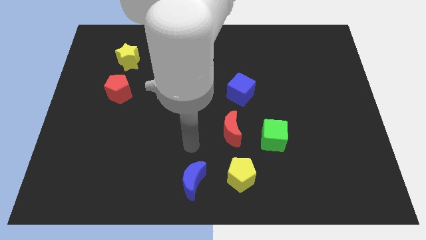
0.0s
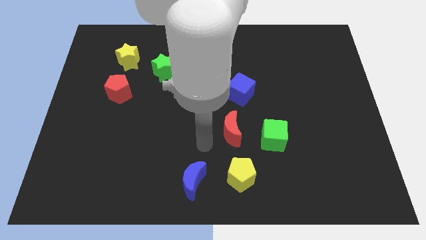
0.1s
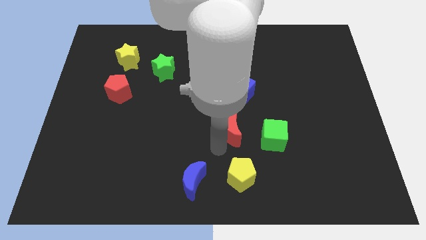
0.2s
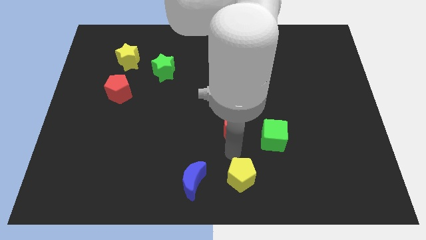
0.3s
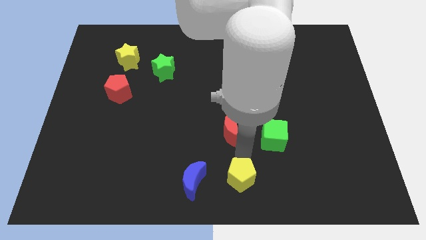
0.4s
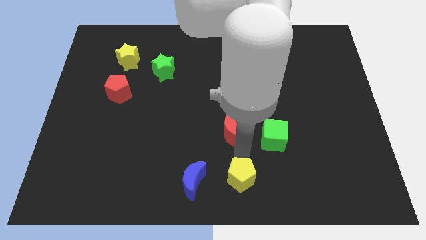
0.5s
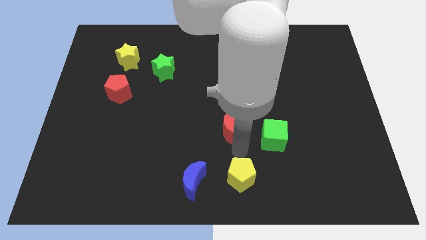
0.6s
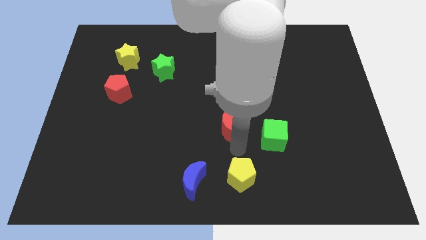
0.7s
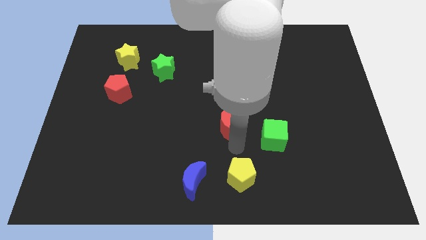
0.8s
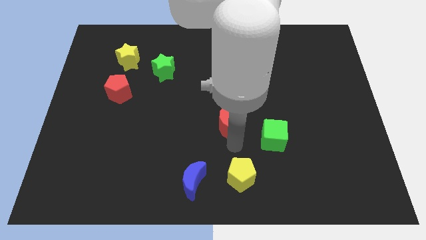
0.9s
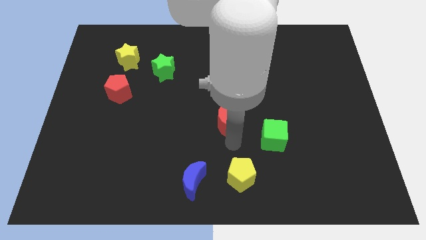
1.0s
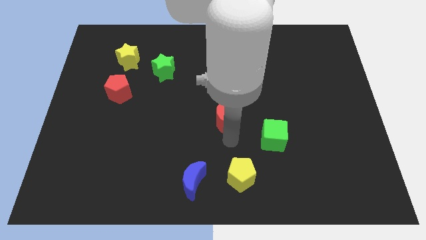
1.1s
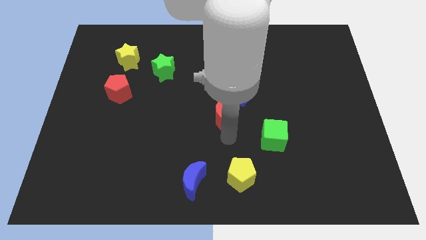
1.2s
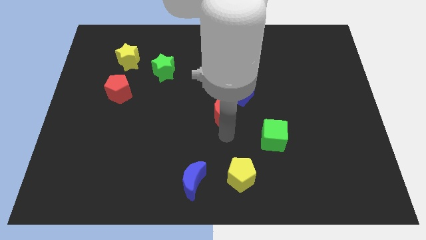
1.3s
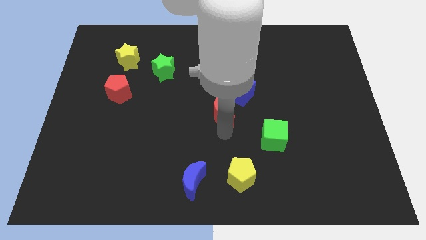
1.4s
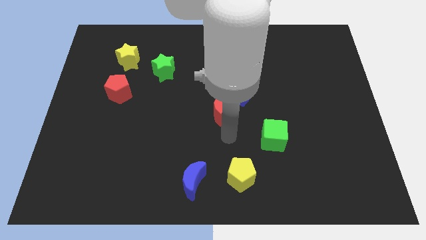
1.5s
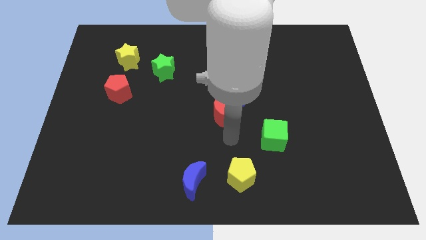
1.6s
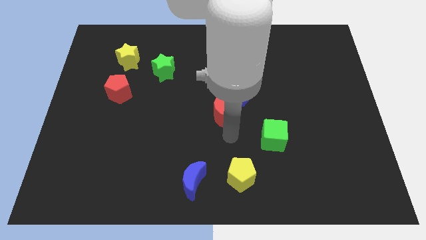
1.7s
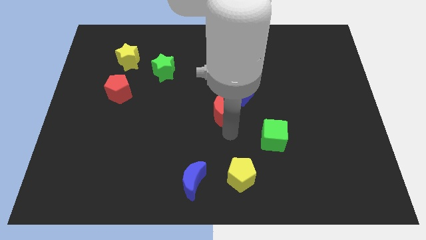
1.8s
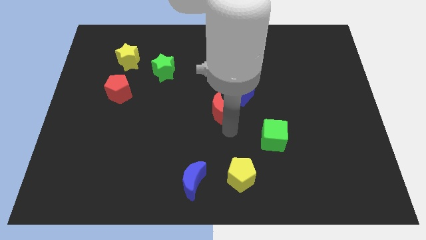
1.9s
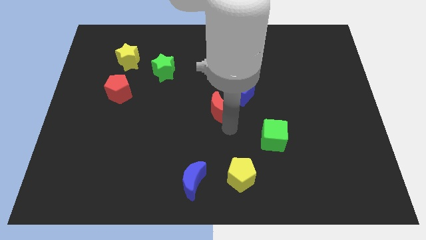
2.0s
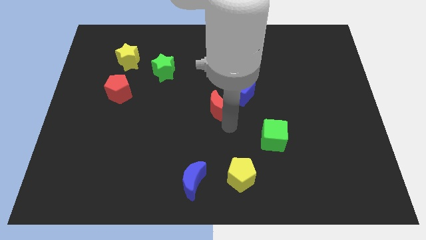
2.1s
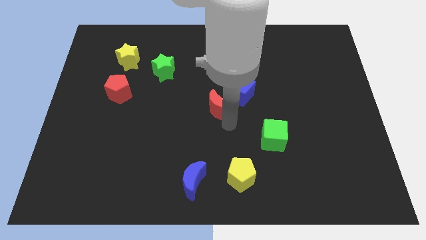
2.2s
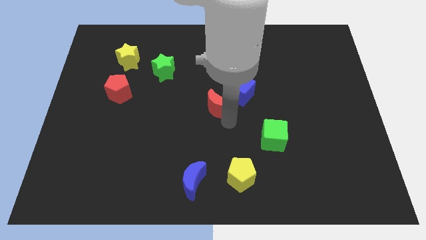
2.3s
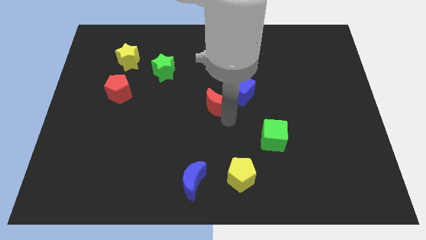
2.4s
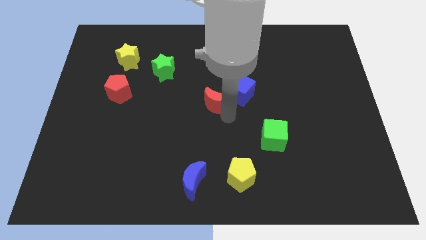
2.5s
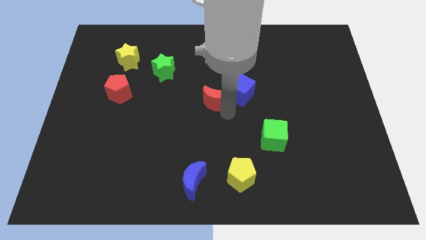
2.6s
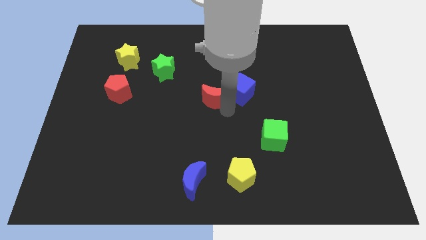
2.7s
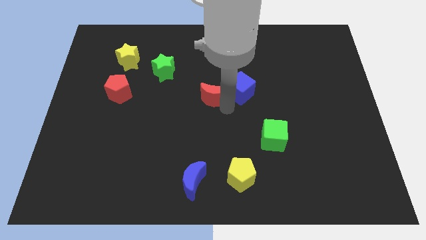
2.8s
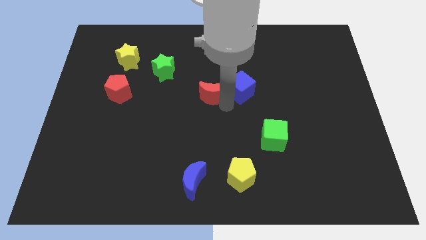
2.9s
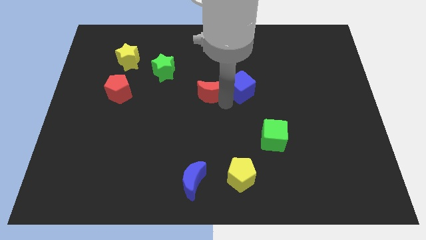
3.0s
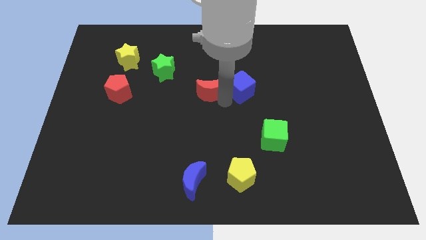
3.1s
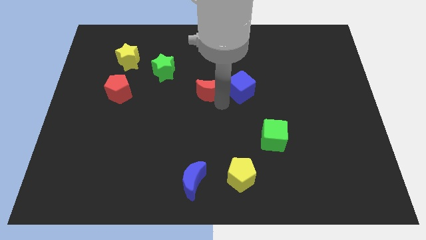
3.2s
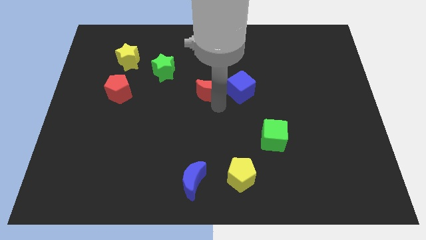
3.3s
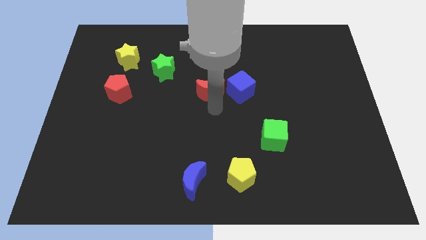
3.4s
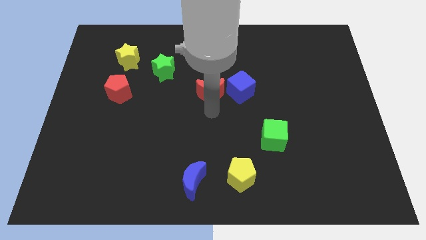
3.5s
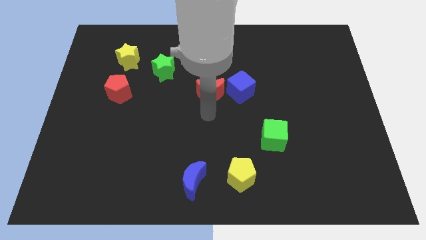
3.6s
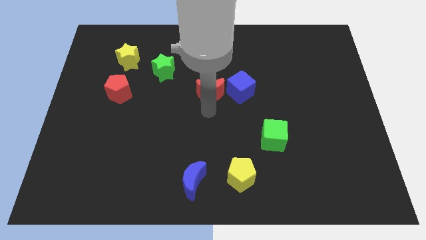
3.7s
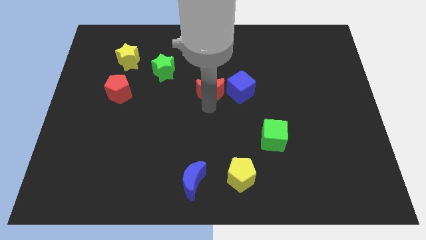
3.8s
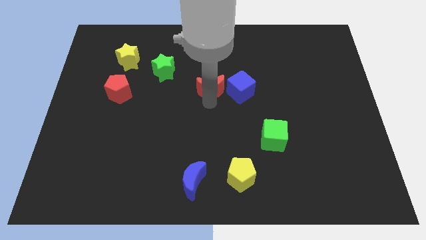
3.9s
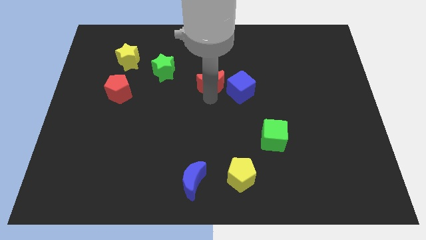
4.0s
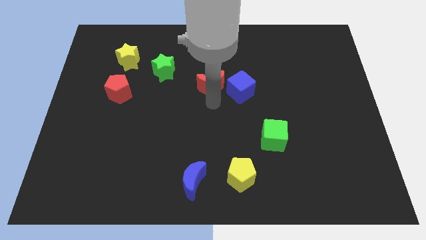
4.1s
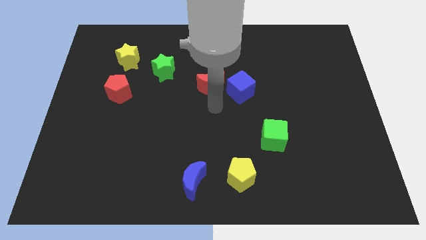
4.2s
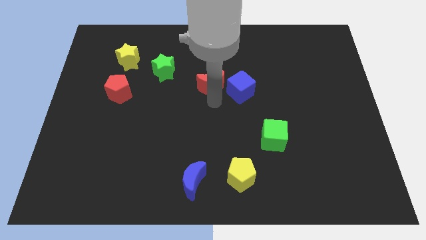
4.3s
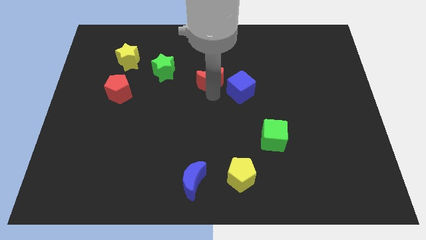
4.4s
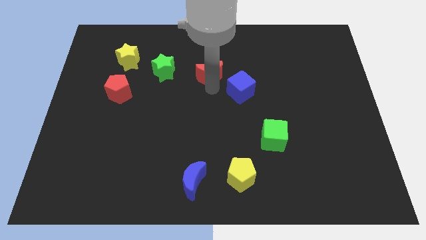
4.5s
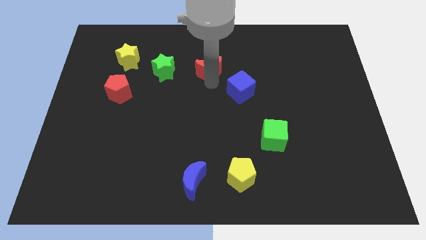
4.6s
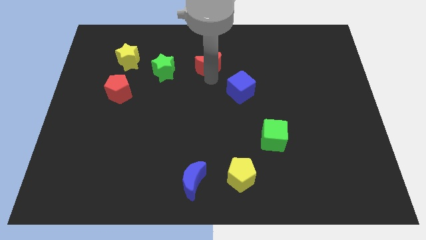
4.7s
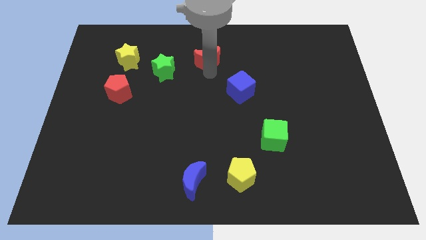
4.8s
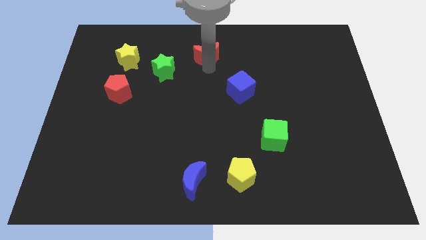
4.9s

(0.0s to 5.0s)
push the red moon to the top

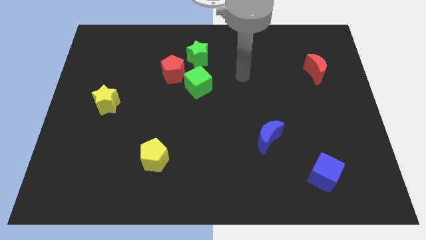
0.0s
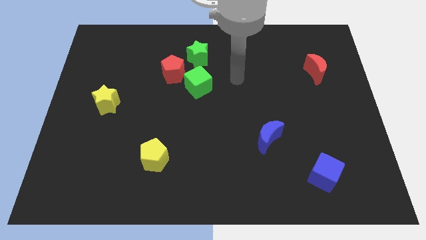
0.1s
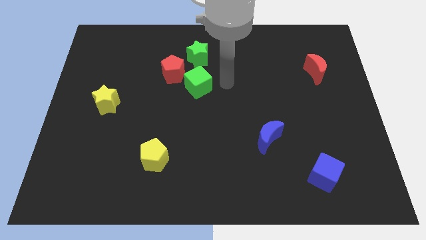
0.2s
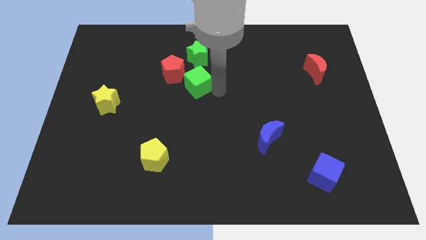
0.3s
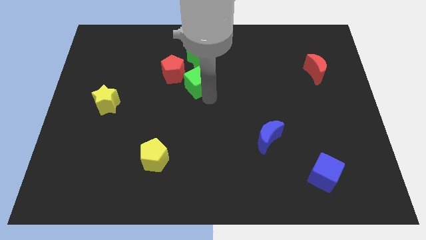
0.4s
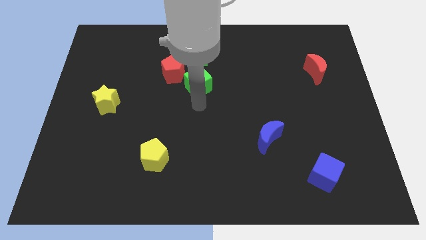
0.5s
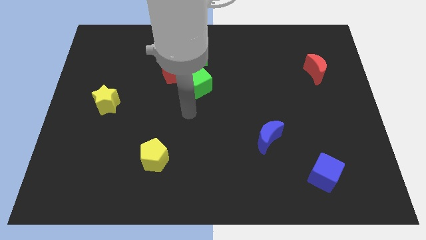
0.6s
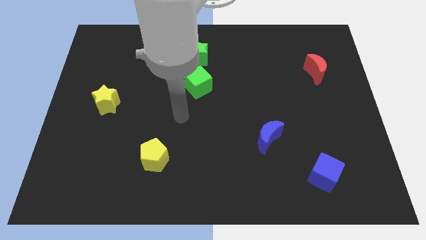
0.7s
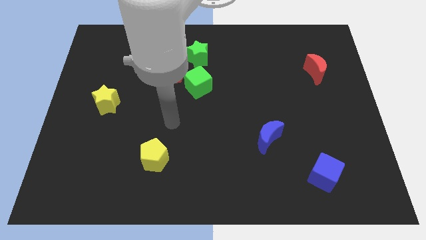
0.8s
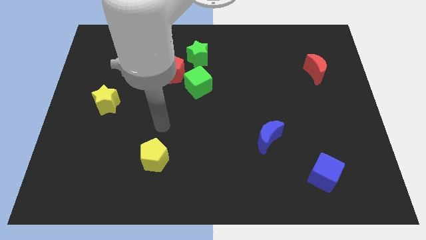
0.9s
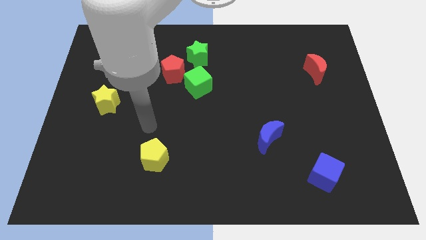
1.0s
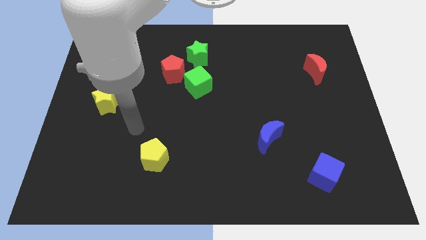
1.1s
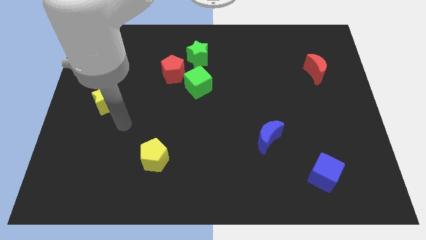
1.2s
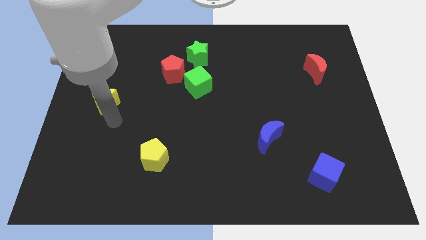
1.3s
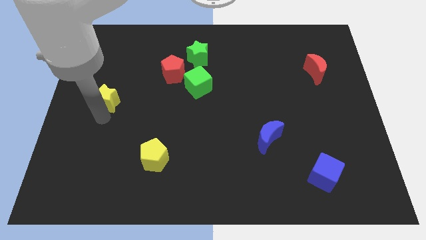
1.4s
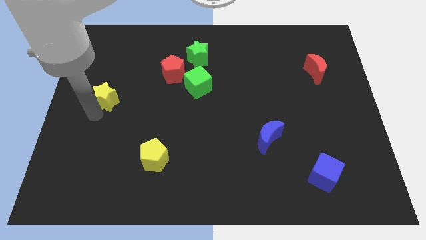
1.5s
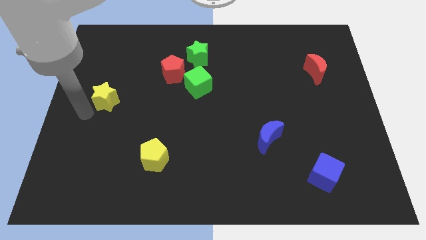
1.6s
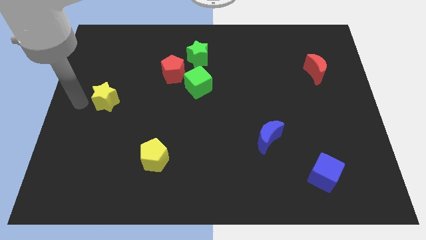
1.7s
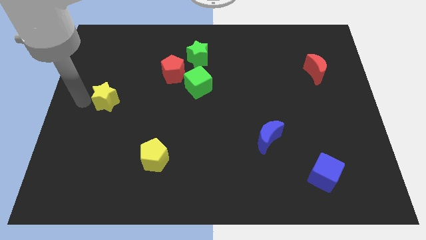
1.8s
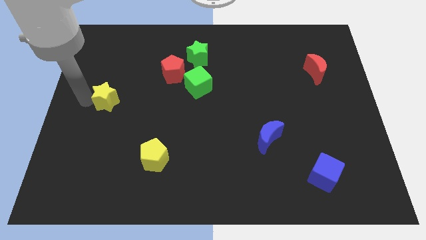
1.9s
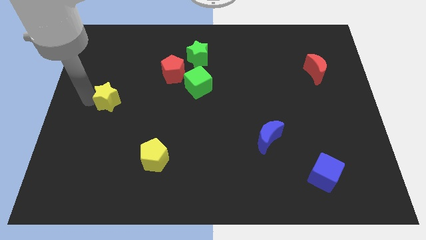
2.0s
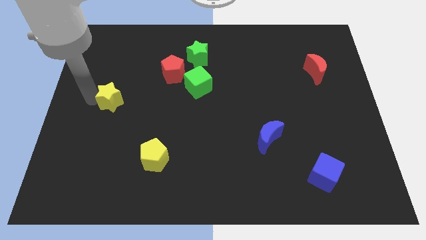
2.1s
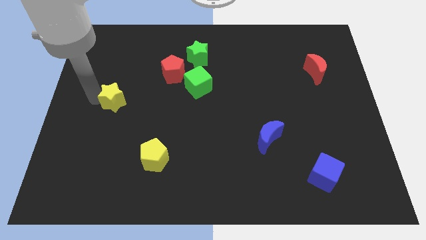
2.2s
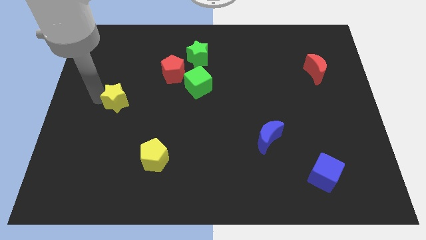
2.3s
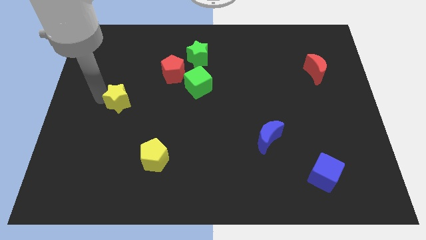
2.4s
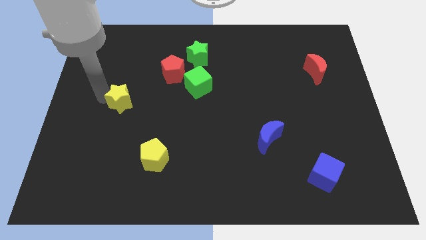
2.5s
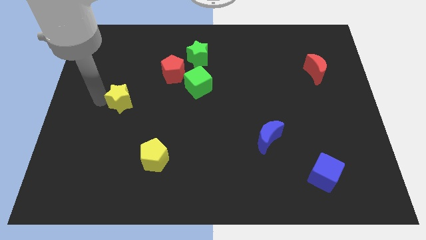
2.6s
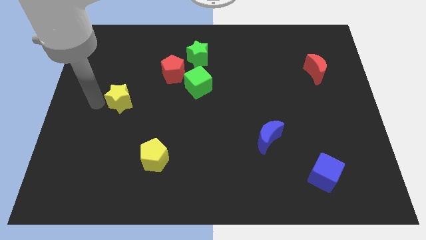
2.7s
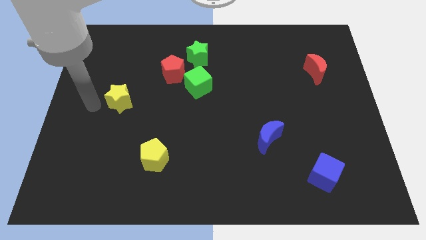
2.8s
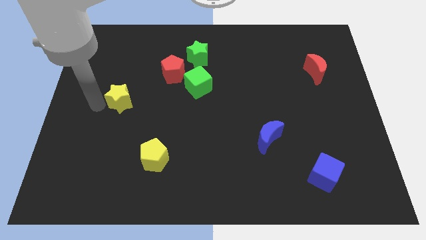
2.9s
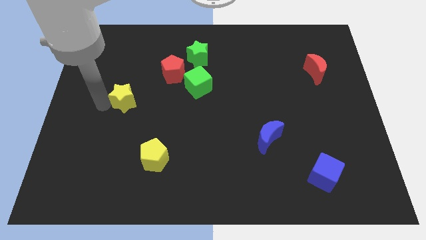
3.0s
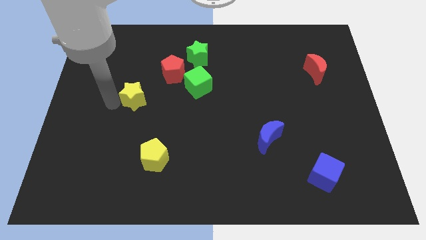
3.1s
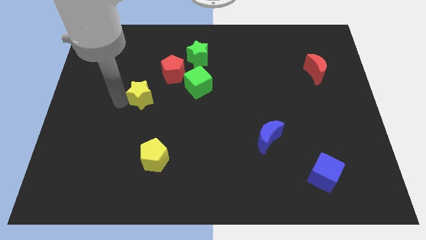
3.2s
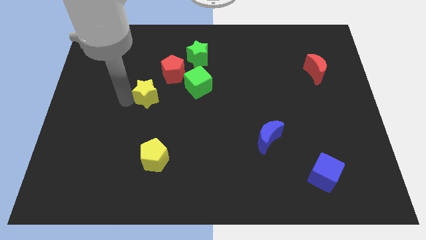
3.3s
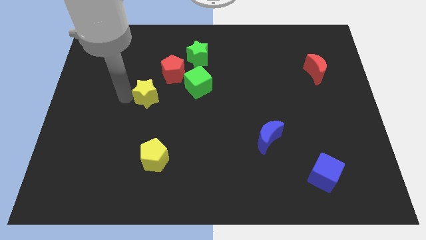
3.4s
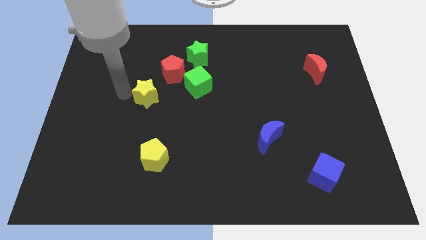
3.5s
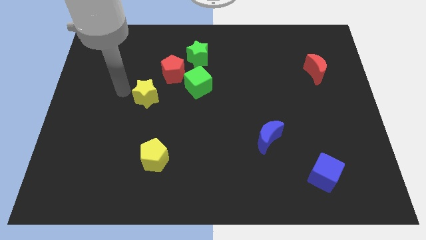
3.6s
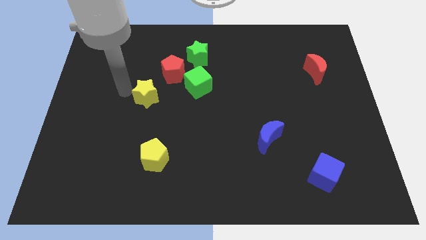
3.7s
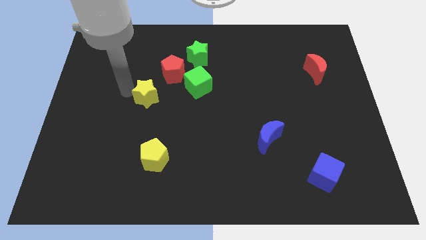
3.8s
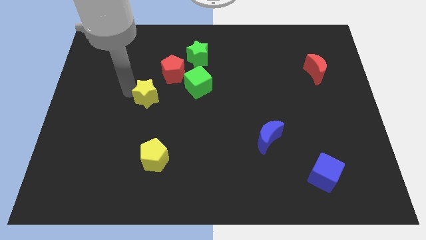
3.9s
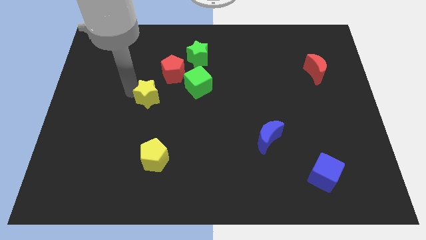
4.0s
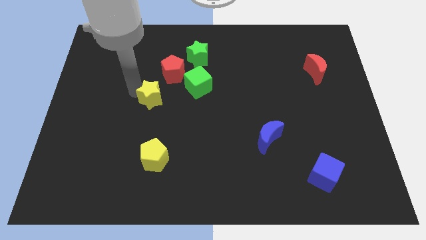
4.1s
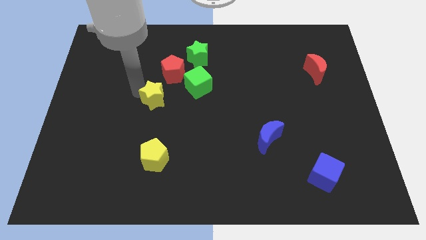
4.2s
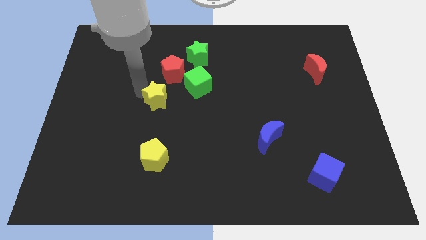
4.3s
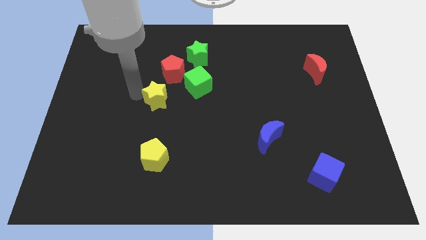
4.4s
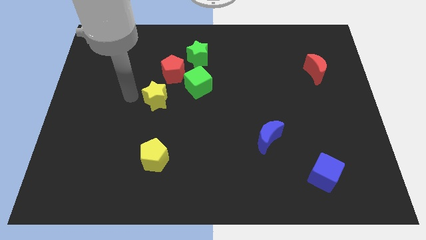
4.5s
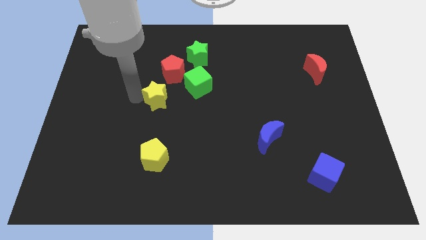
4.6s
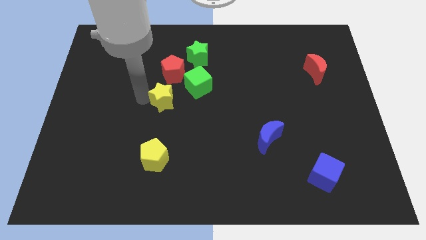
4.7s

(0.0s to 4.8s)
put the yellow star to the center
